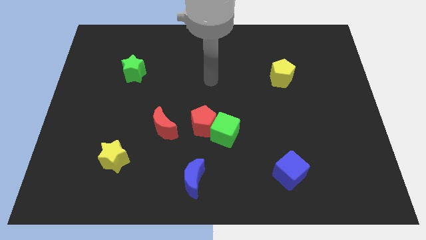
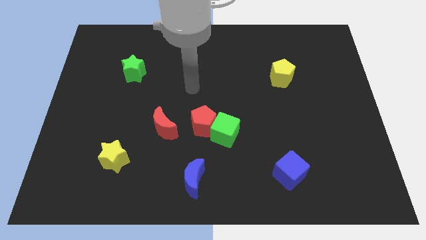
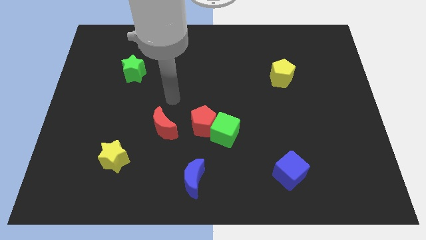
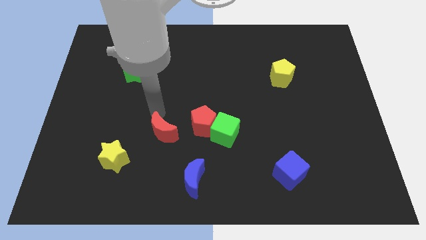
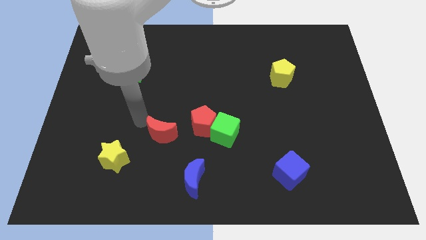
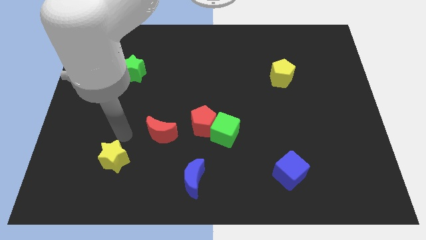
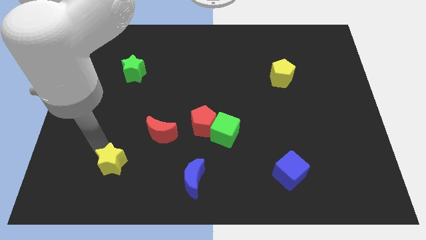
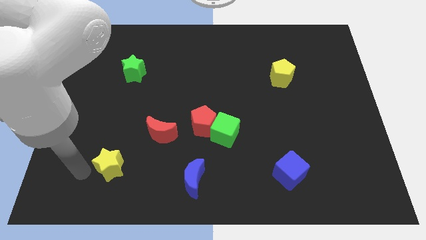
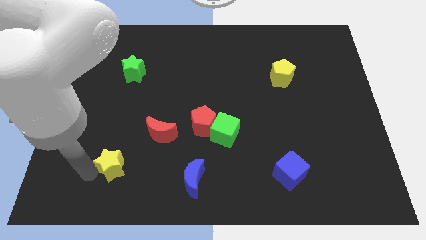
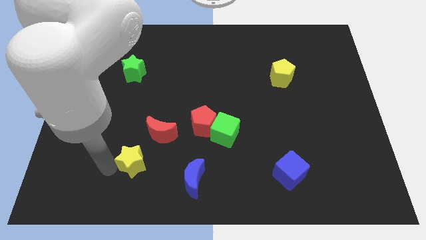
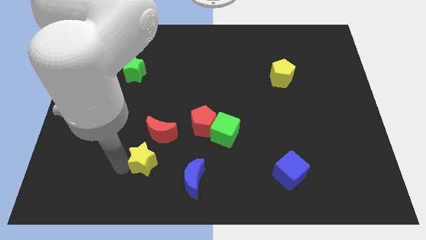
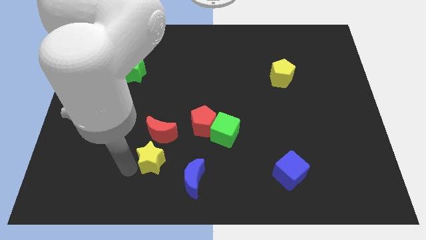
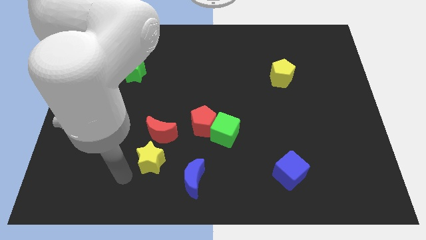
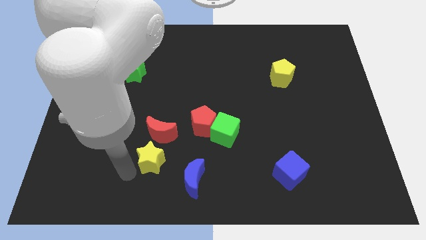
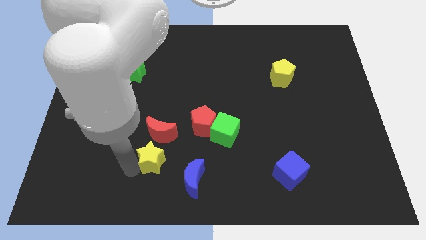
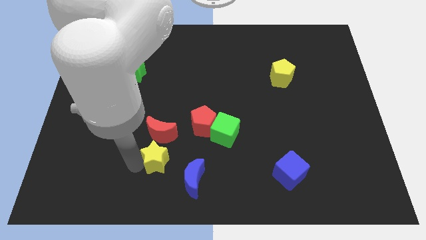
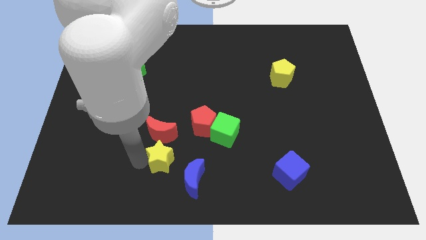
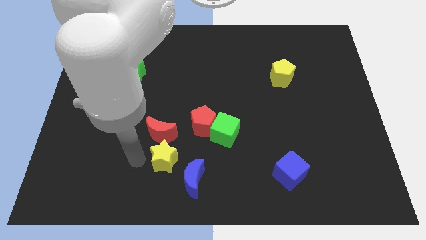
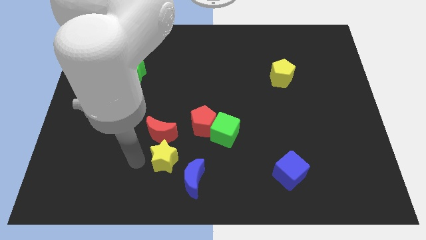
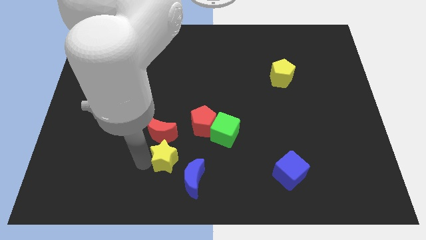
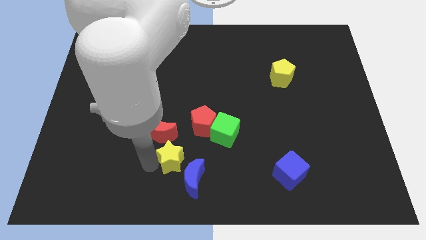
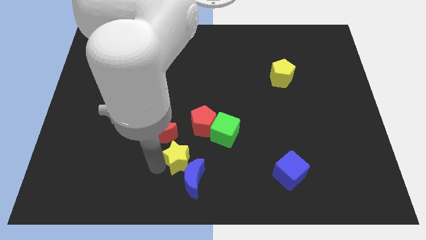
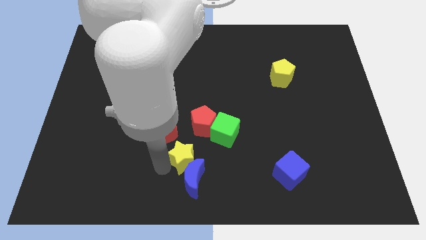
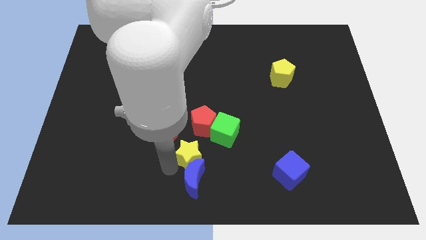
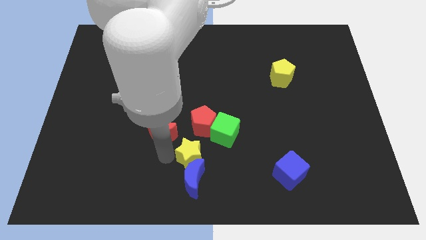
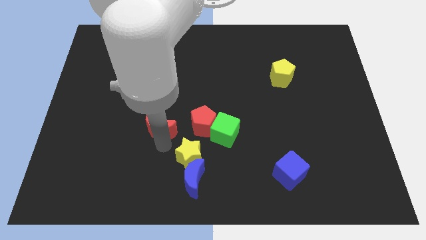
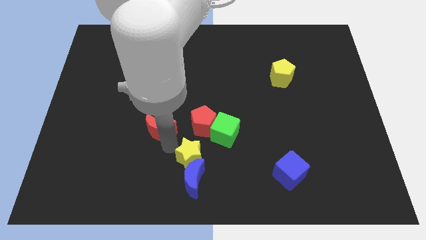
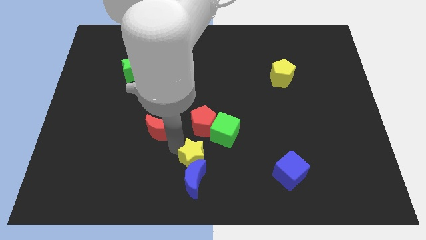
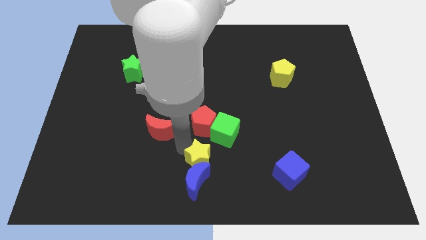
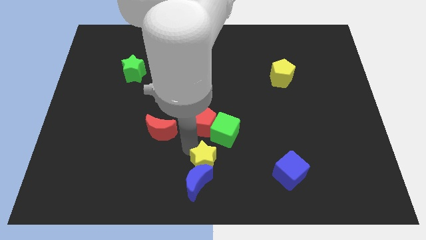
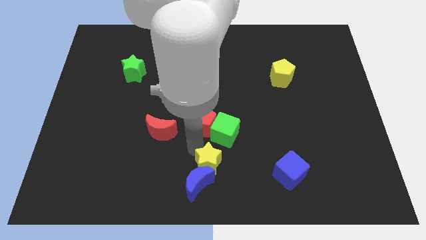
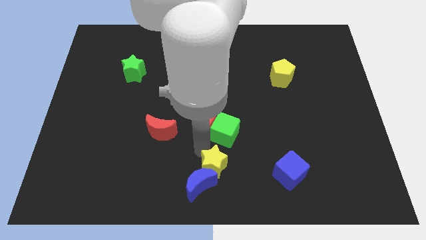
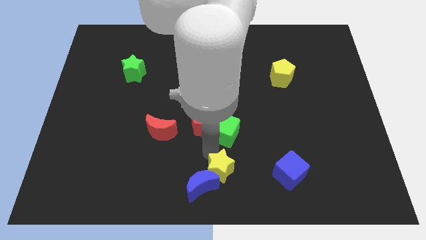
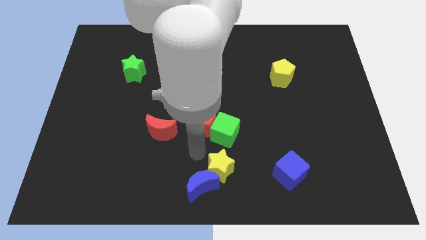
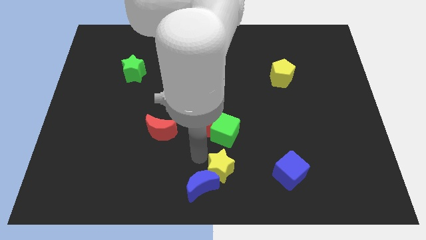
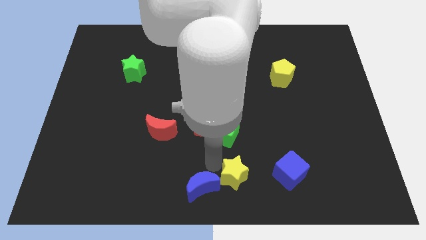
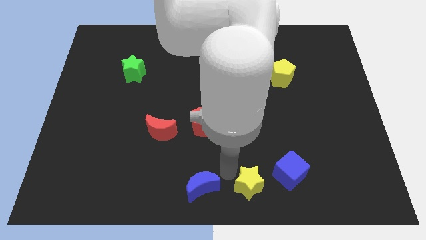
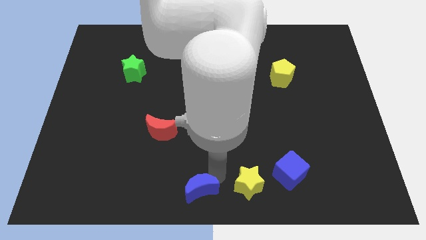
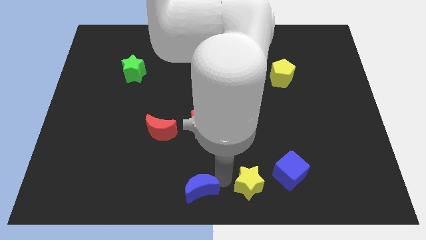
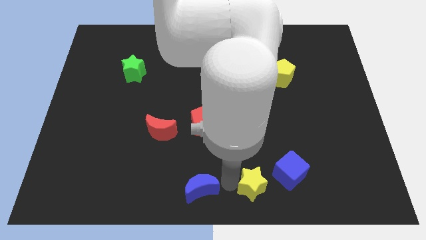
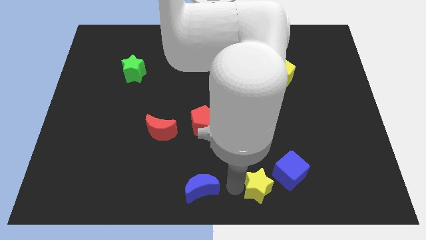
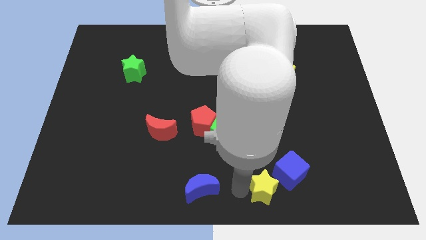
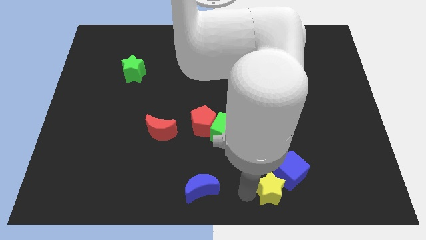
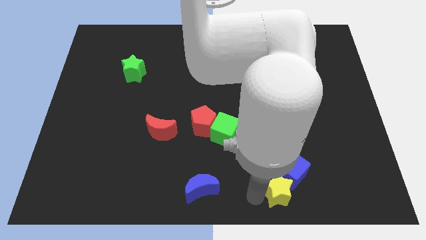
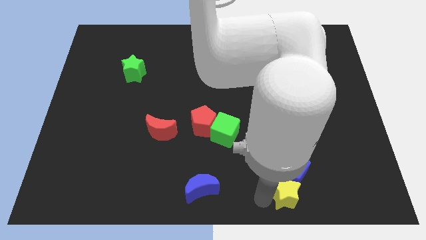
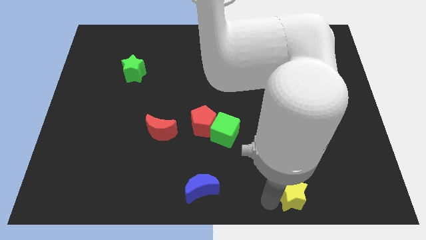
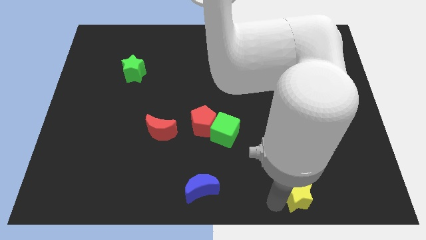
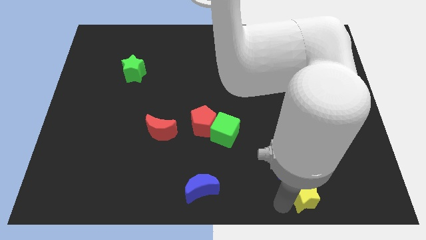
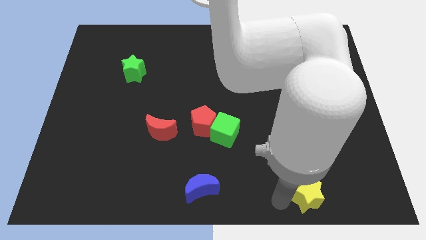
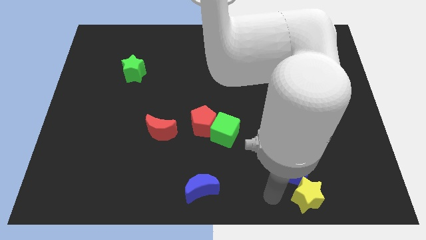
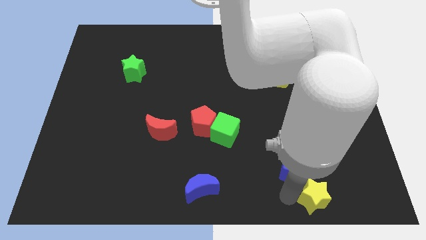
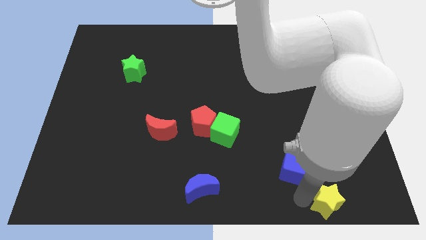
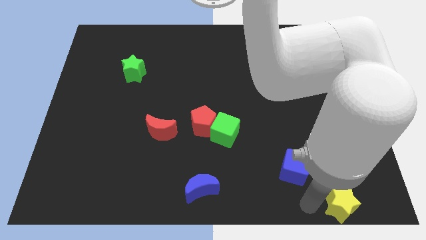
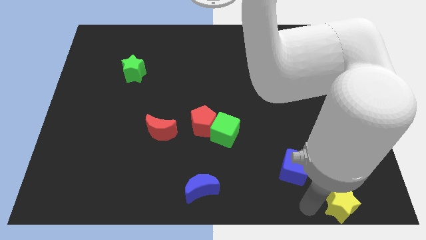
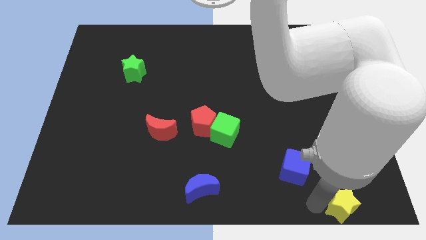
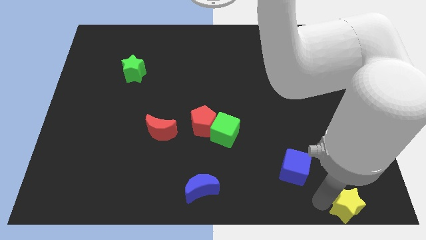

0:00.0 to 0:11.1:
push the yellow star to the bottom right corner
